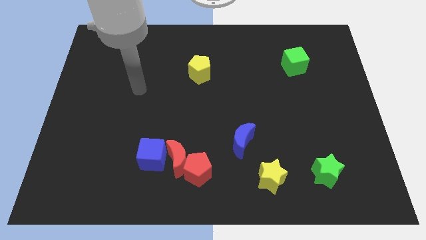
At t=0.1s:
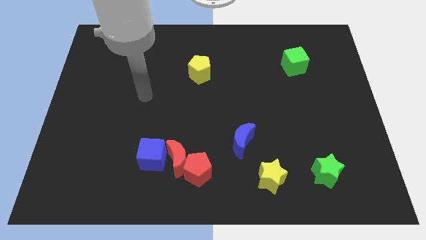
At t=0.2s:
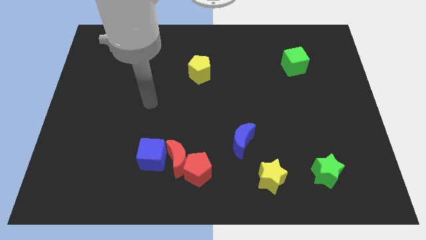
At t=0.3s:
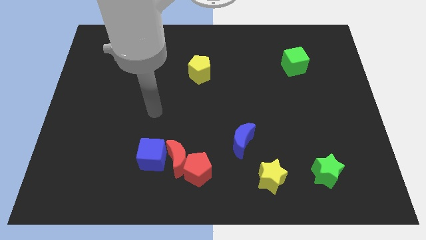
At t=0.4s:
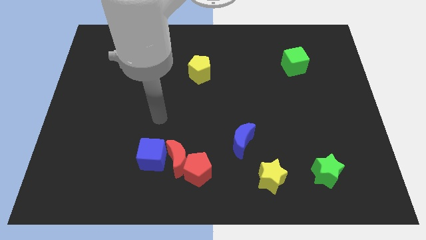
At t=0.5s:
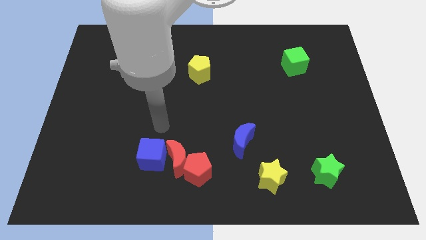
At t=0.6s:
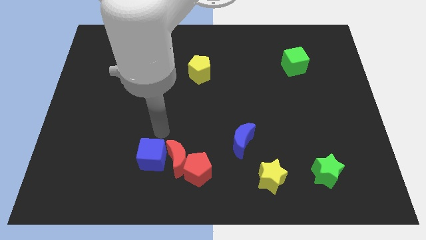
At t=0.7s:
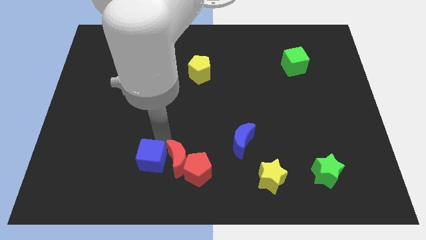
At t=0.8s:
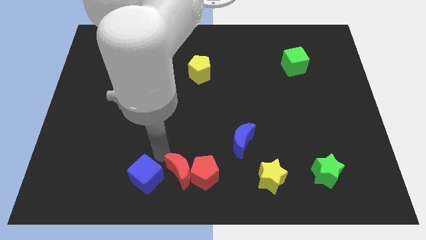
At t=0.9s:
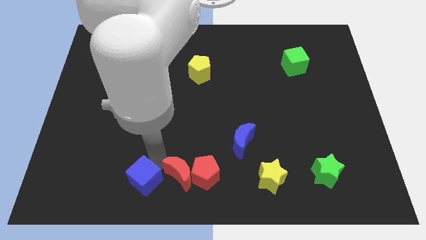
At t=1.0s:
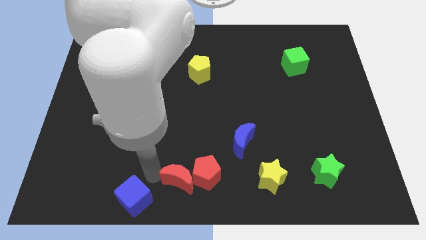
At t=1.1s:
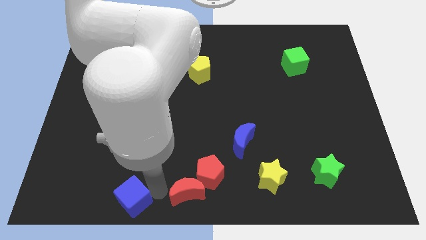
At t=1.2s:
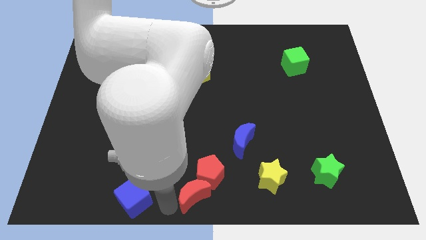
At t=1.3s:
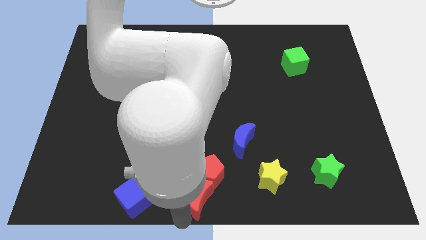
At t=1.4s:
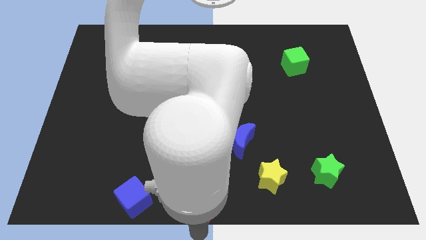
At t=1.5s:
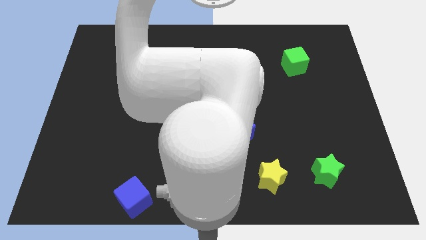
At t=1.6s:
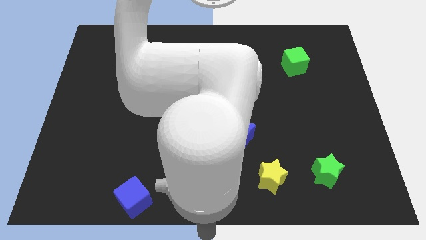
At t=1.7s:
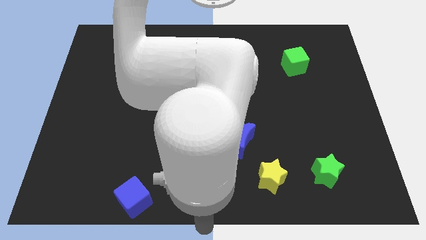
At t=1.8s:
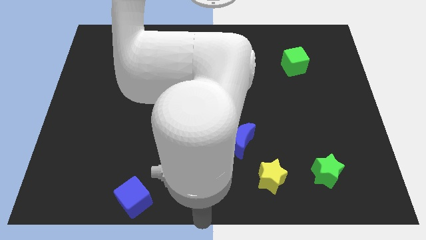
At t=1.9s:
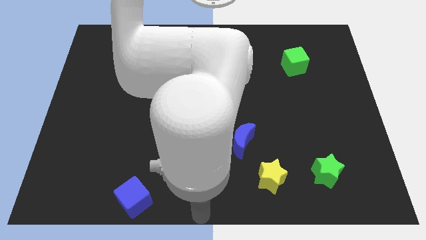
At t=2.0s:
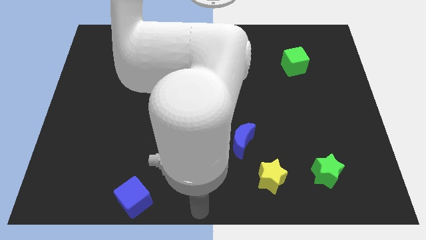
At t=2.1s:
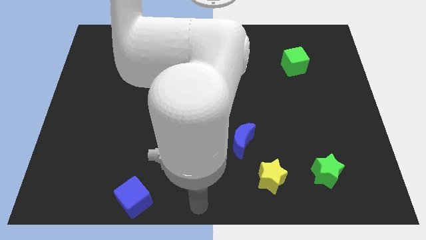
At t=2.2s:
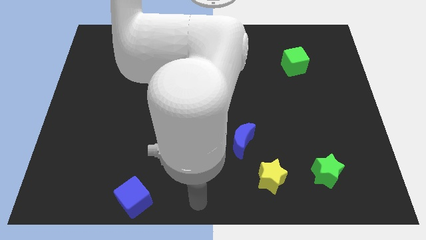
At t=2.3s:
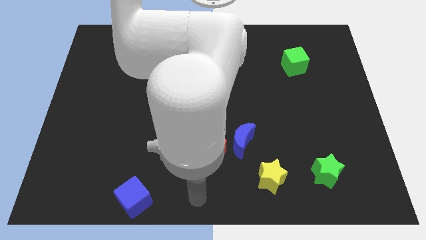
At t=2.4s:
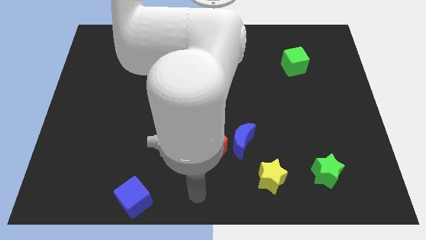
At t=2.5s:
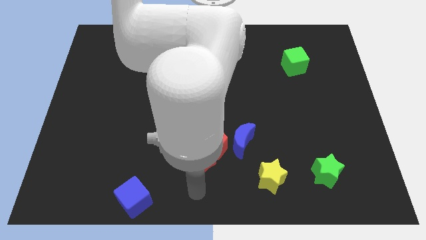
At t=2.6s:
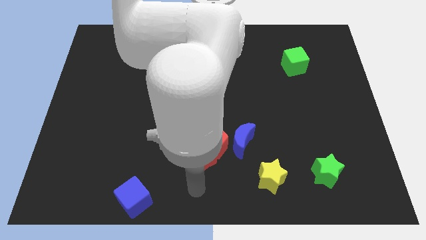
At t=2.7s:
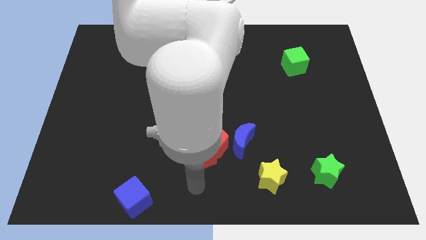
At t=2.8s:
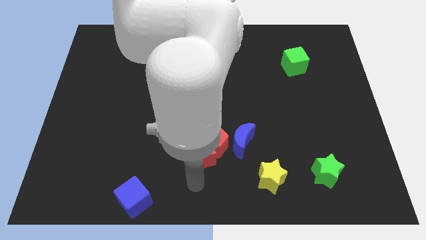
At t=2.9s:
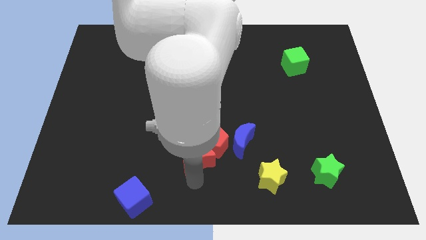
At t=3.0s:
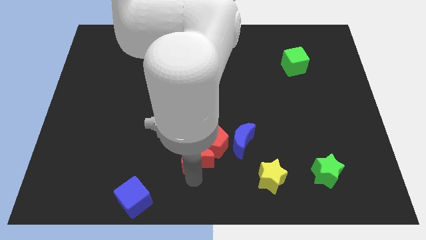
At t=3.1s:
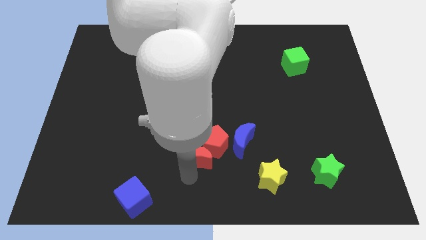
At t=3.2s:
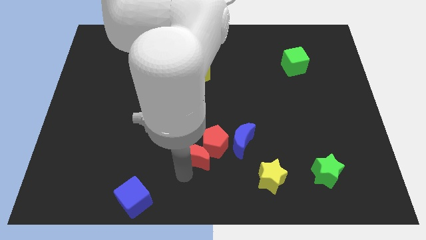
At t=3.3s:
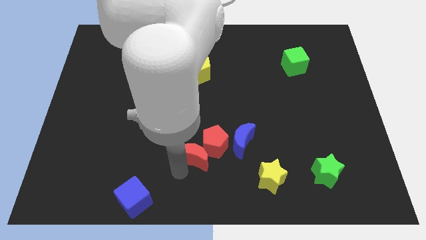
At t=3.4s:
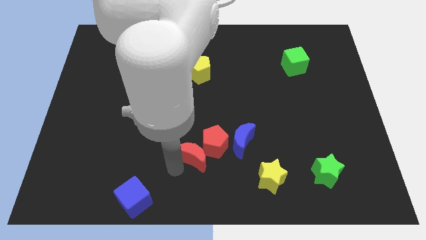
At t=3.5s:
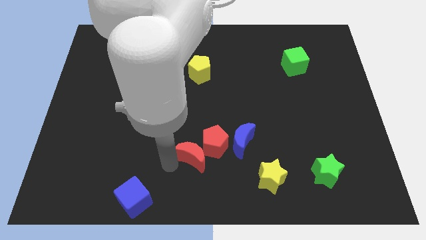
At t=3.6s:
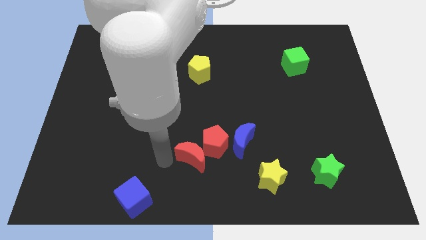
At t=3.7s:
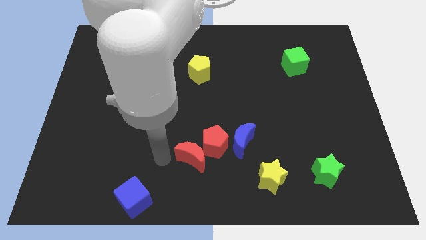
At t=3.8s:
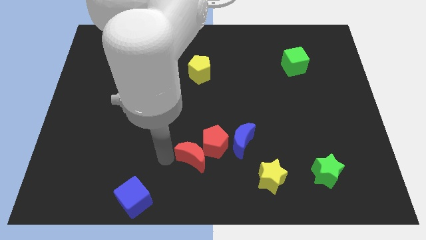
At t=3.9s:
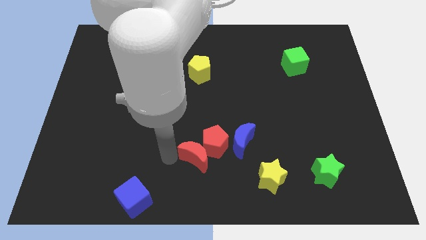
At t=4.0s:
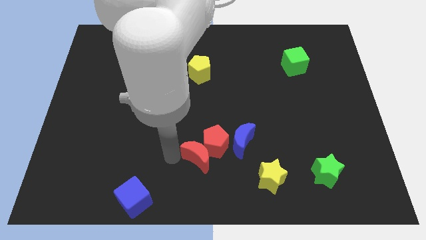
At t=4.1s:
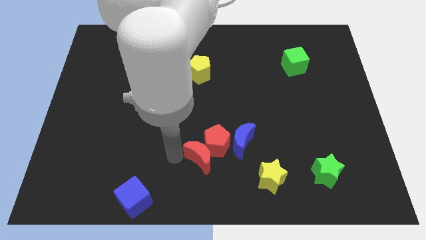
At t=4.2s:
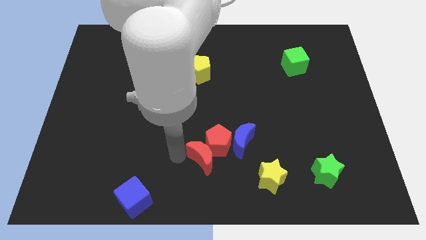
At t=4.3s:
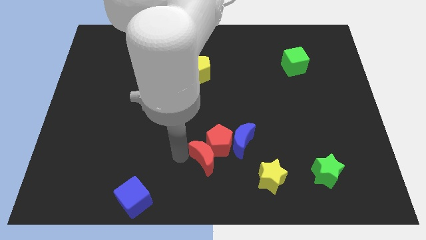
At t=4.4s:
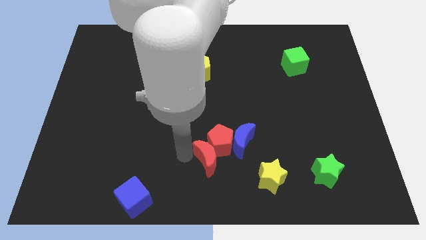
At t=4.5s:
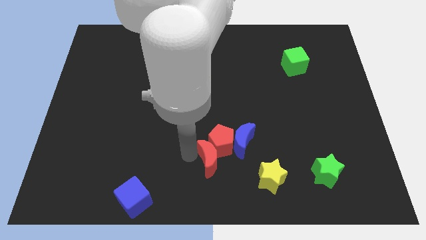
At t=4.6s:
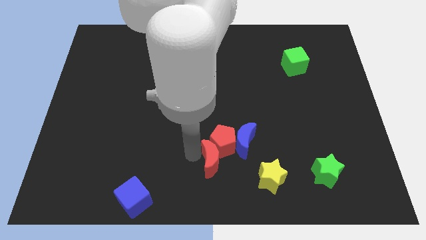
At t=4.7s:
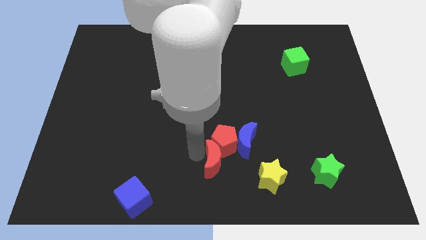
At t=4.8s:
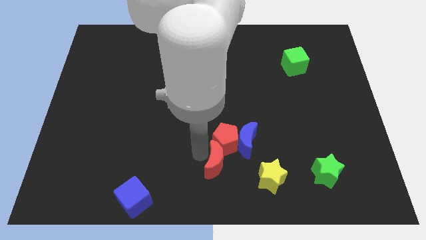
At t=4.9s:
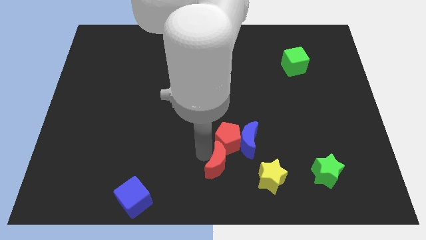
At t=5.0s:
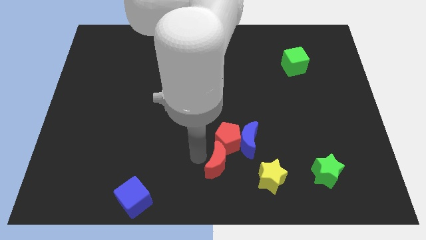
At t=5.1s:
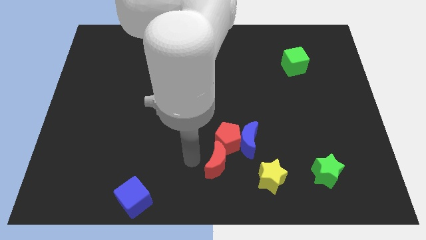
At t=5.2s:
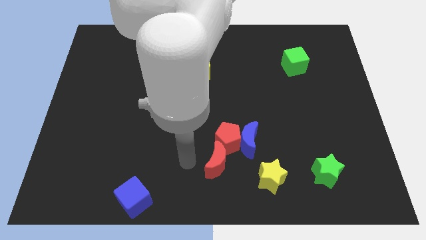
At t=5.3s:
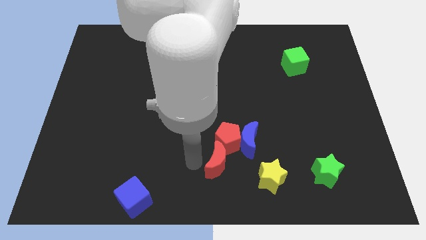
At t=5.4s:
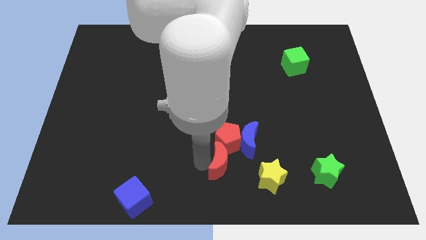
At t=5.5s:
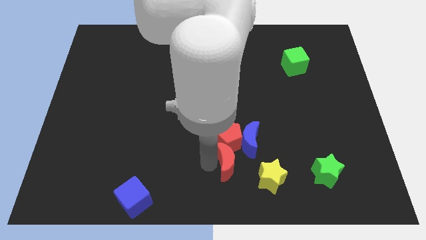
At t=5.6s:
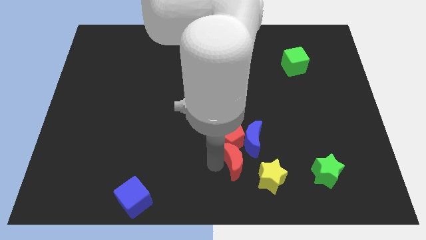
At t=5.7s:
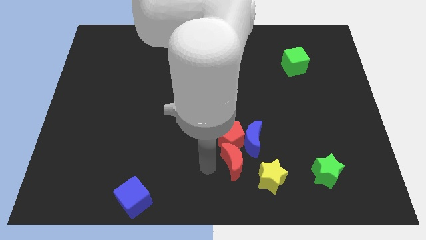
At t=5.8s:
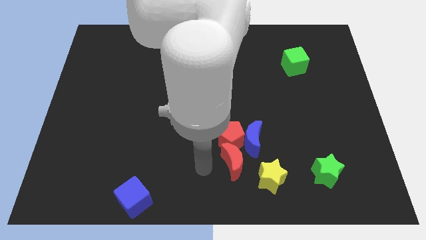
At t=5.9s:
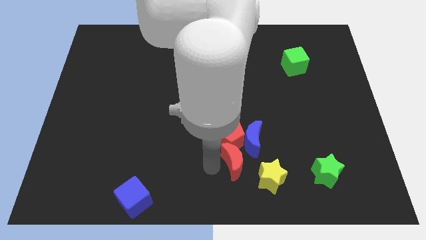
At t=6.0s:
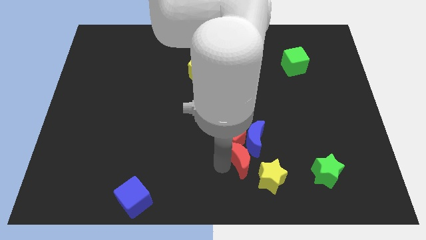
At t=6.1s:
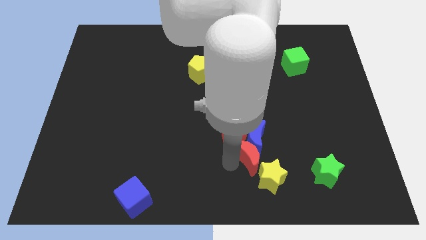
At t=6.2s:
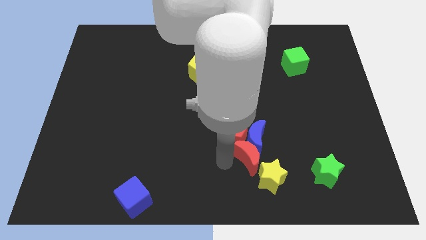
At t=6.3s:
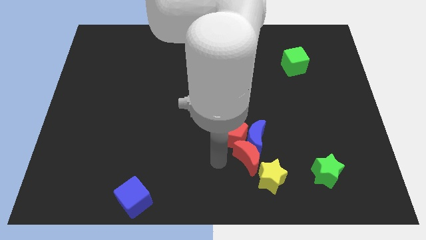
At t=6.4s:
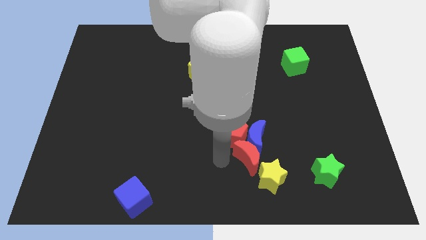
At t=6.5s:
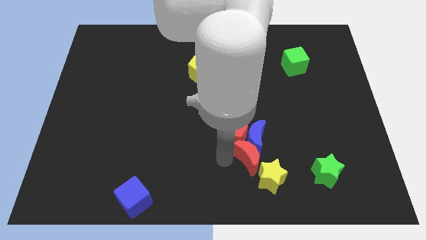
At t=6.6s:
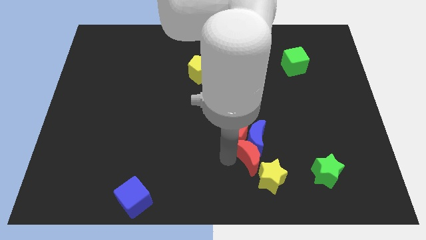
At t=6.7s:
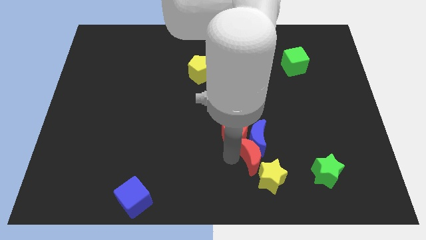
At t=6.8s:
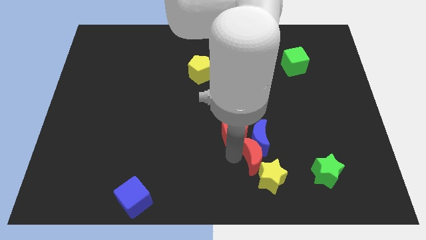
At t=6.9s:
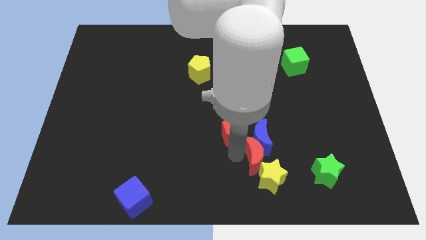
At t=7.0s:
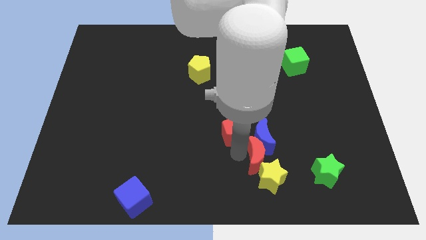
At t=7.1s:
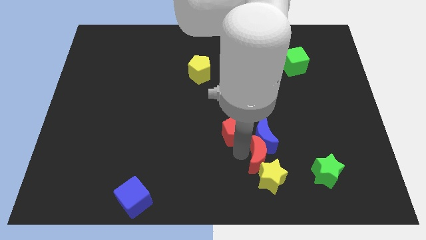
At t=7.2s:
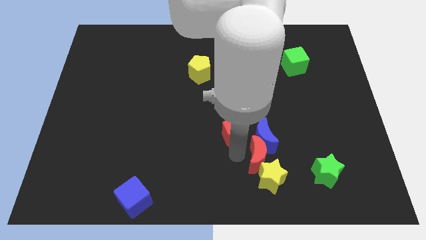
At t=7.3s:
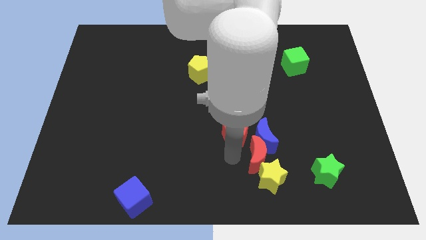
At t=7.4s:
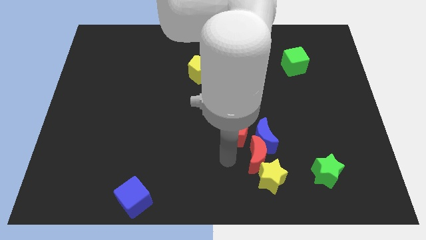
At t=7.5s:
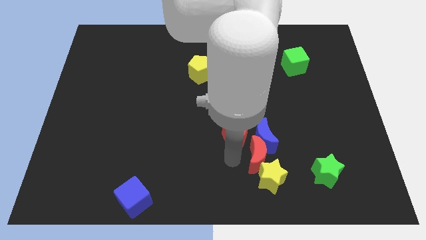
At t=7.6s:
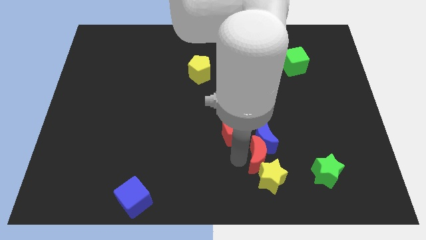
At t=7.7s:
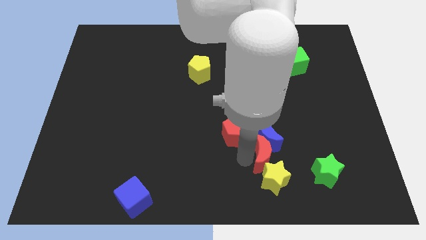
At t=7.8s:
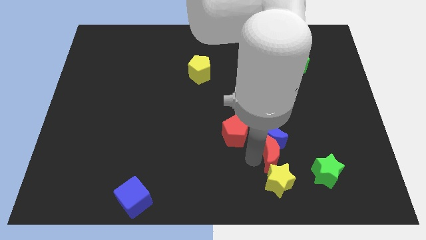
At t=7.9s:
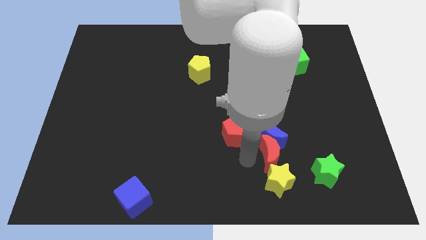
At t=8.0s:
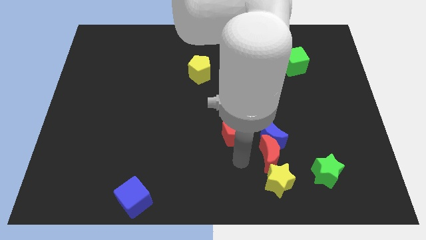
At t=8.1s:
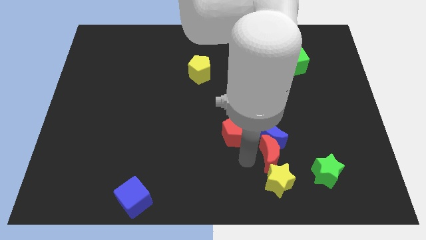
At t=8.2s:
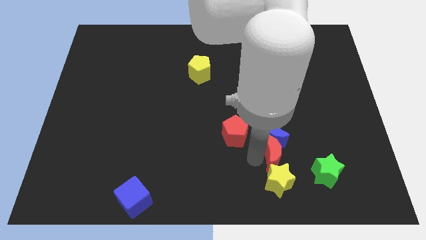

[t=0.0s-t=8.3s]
move the red moon to the top left side of the green star
